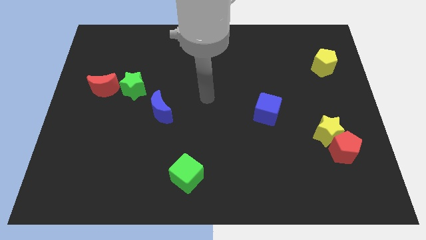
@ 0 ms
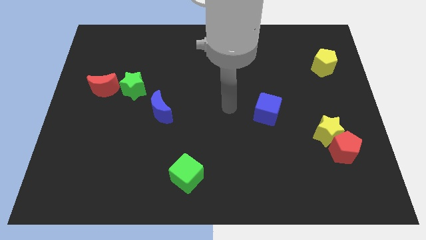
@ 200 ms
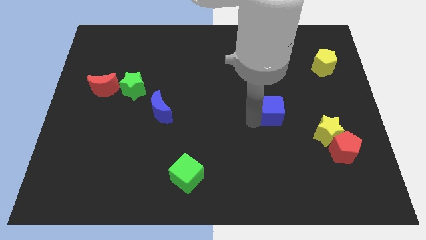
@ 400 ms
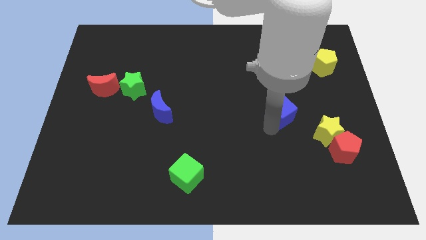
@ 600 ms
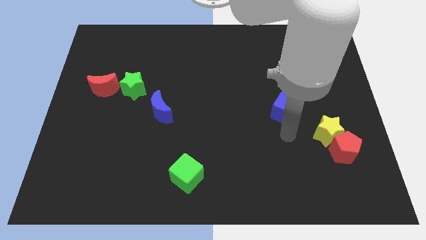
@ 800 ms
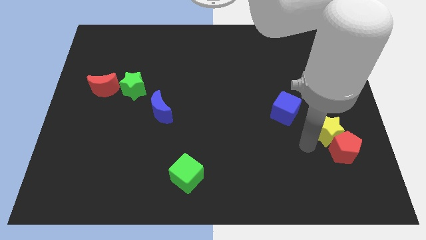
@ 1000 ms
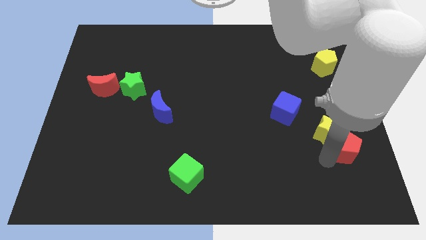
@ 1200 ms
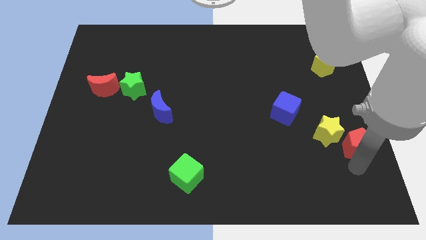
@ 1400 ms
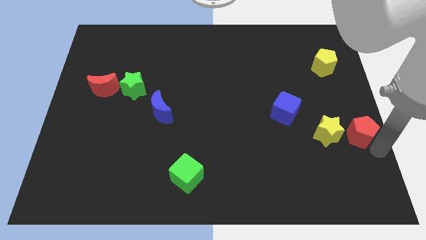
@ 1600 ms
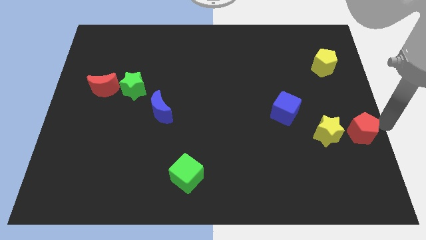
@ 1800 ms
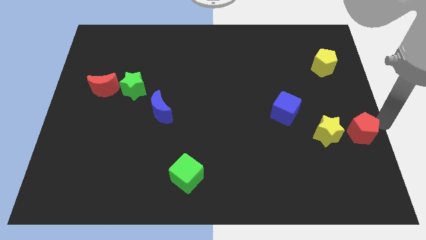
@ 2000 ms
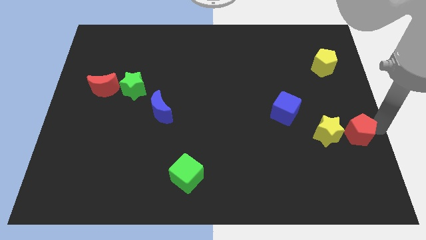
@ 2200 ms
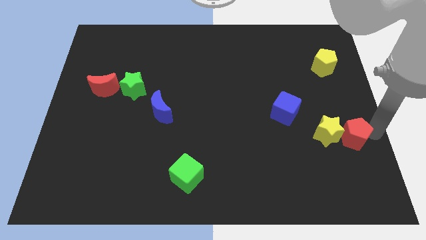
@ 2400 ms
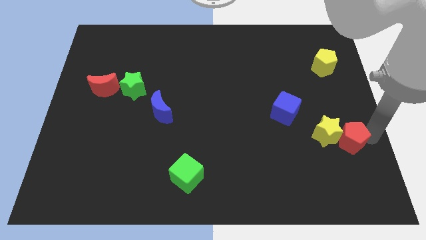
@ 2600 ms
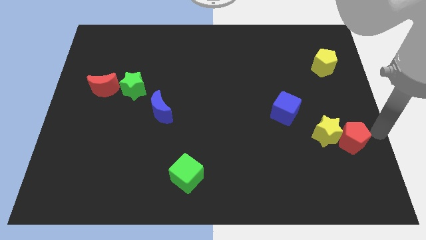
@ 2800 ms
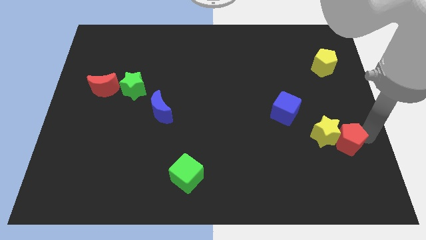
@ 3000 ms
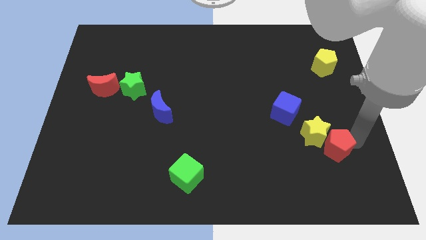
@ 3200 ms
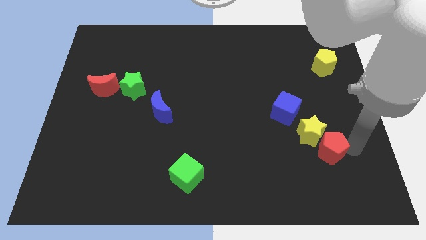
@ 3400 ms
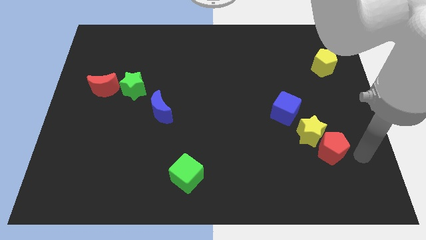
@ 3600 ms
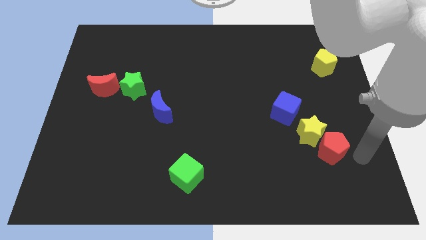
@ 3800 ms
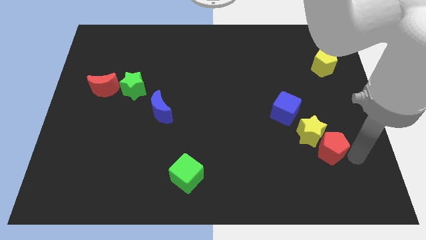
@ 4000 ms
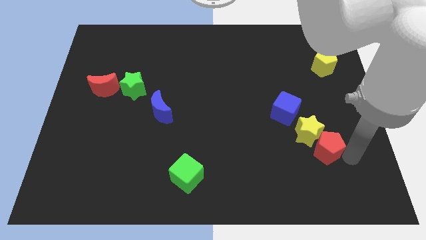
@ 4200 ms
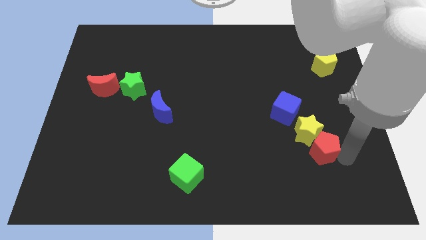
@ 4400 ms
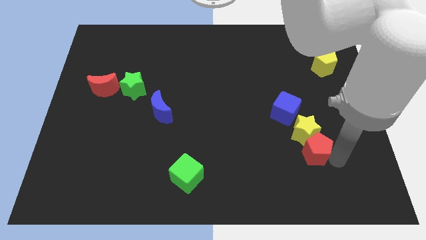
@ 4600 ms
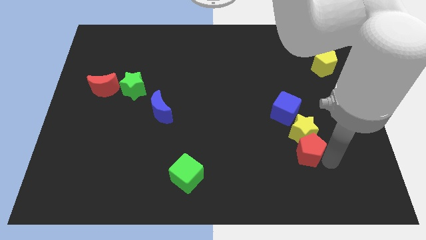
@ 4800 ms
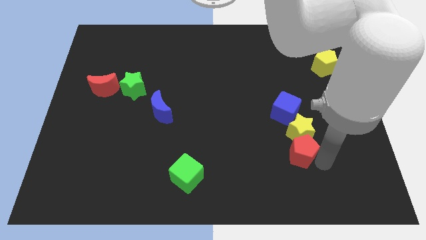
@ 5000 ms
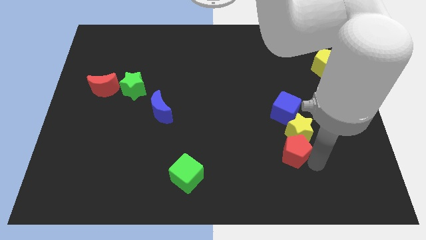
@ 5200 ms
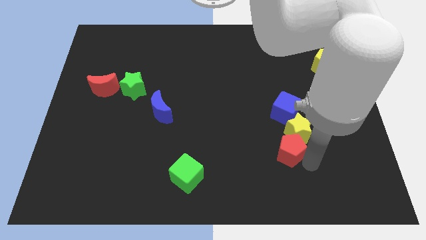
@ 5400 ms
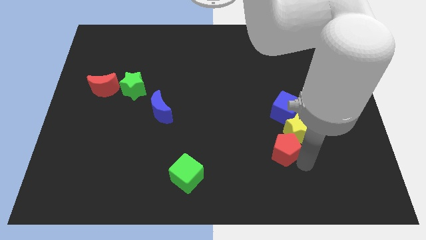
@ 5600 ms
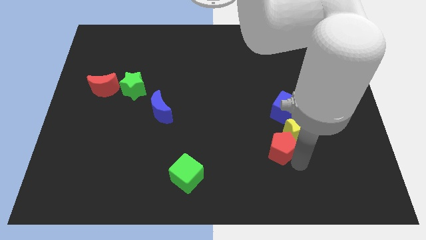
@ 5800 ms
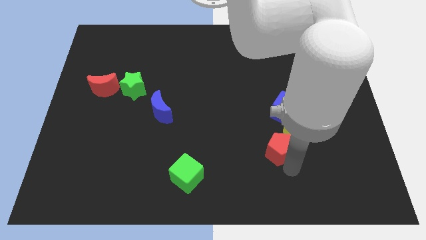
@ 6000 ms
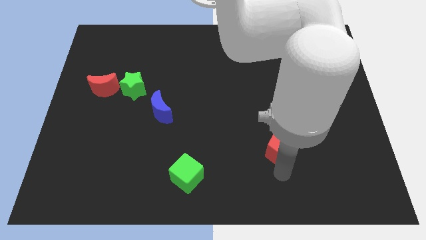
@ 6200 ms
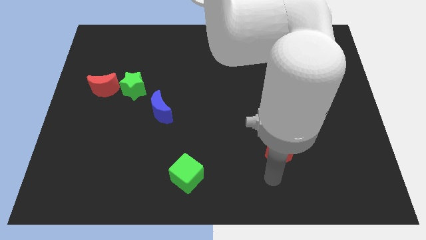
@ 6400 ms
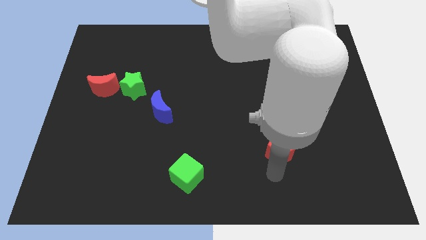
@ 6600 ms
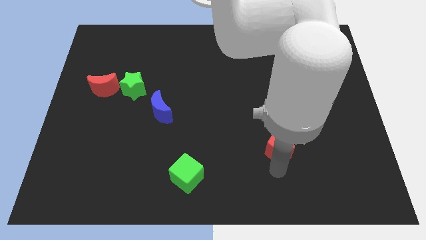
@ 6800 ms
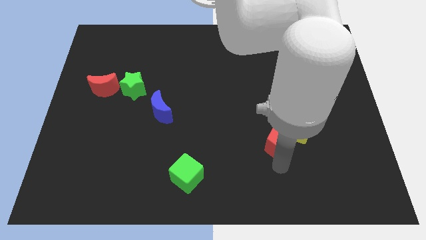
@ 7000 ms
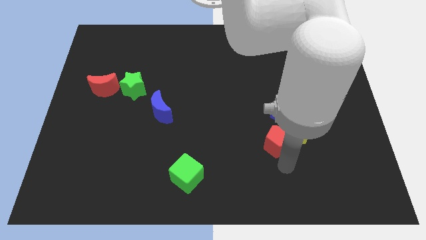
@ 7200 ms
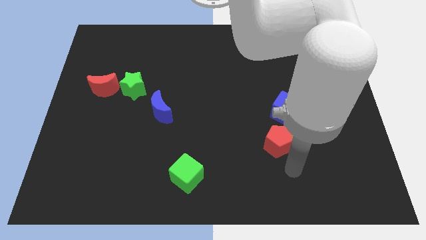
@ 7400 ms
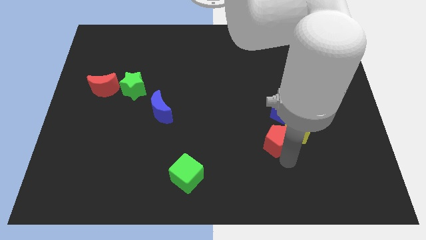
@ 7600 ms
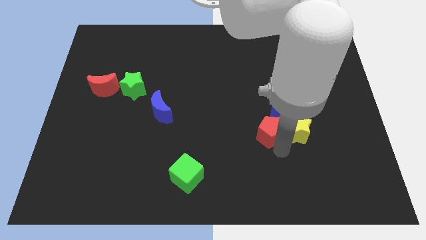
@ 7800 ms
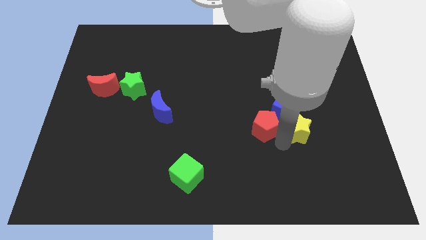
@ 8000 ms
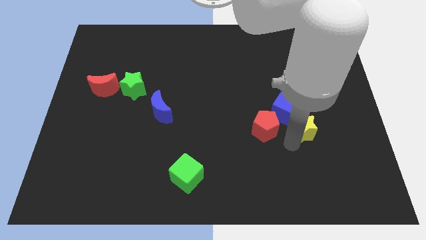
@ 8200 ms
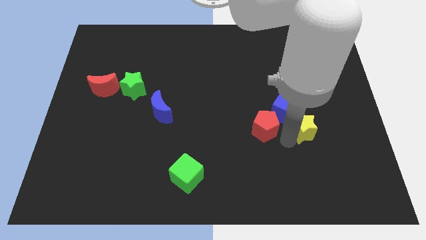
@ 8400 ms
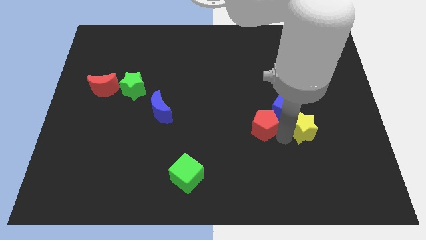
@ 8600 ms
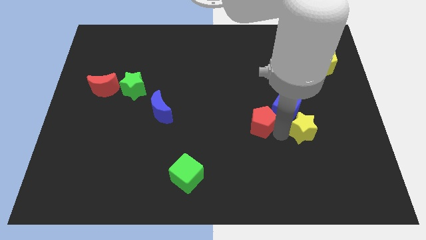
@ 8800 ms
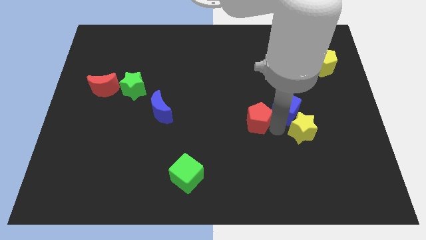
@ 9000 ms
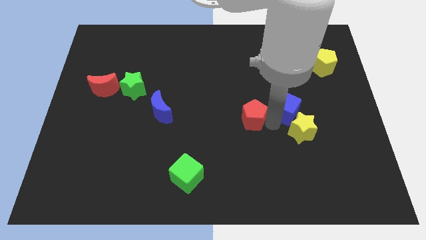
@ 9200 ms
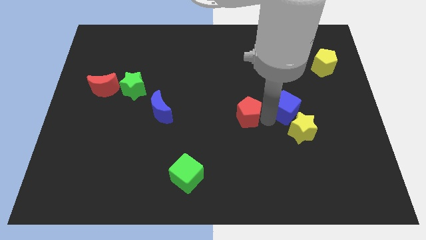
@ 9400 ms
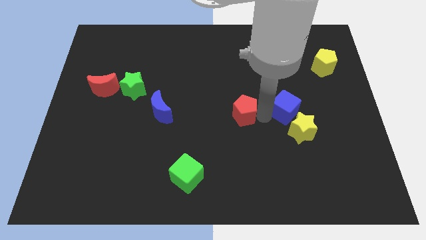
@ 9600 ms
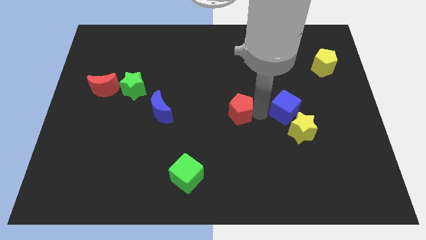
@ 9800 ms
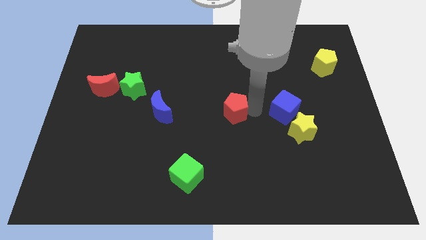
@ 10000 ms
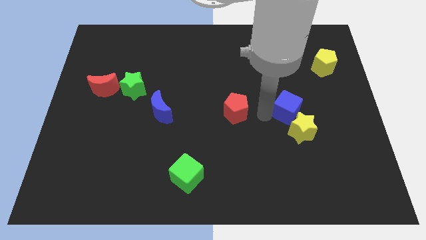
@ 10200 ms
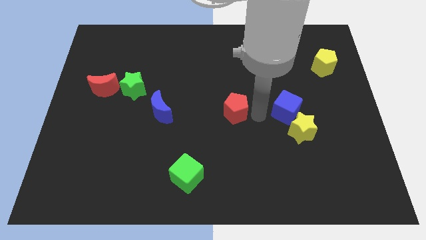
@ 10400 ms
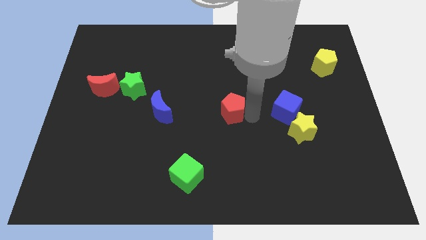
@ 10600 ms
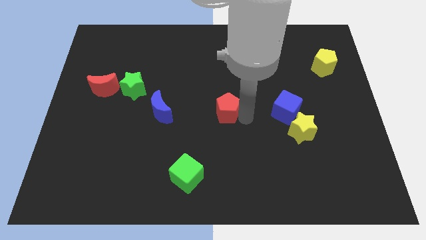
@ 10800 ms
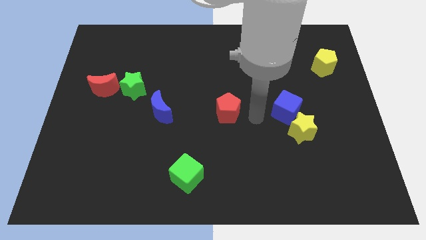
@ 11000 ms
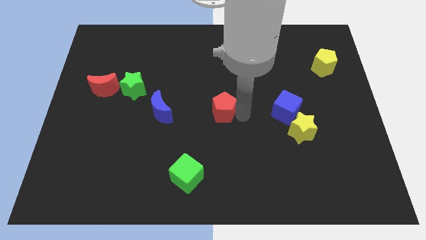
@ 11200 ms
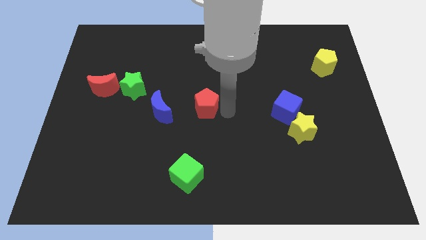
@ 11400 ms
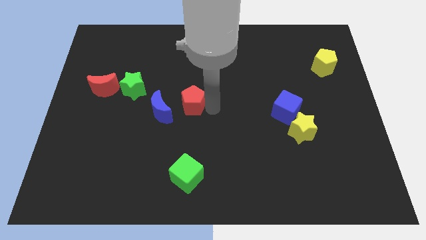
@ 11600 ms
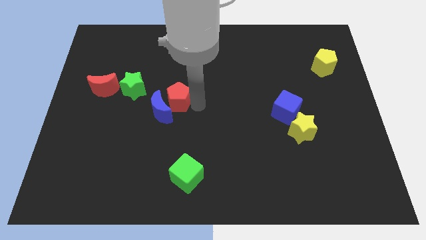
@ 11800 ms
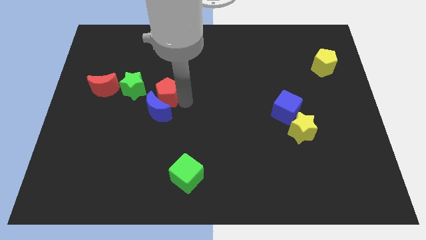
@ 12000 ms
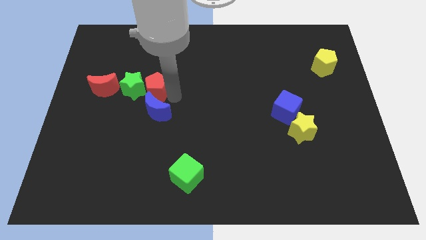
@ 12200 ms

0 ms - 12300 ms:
move the red pentagon next to the green star

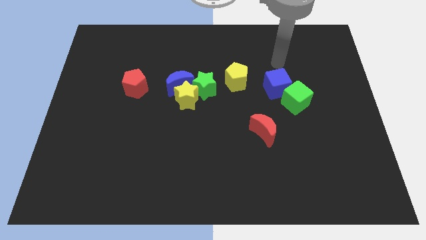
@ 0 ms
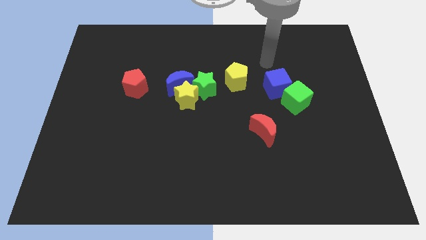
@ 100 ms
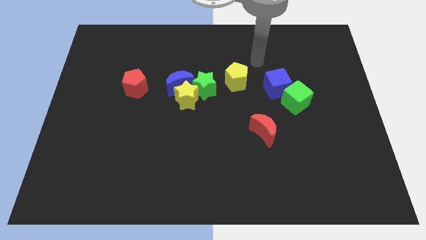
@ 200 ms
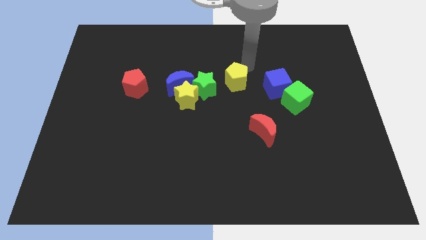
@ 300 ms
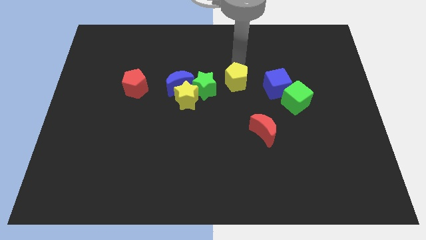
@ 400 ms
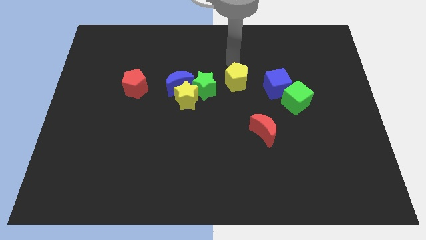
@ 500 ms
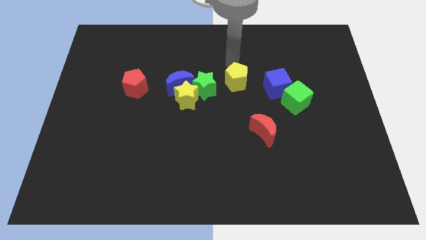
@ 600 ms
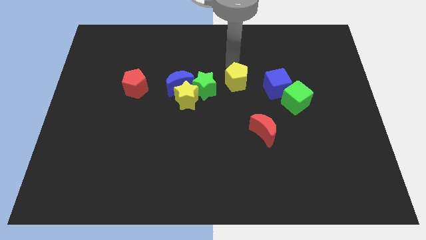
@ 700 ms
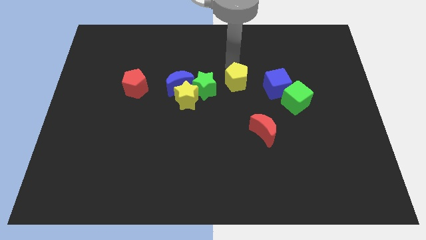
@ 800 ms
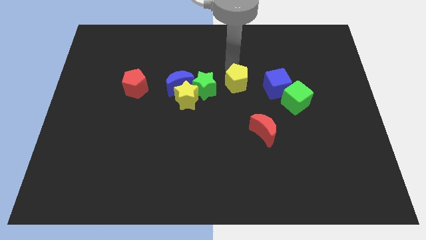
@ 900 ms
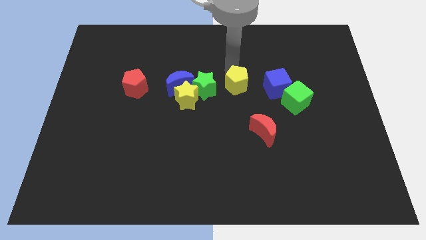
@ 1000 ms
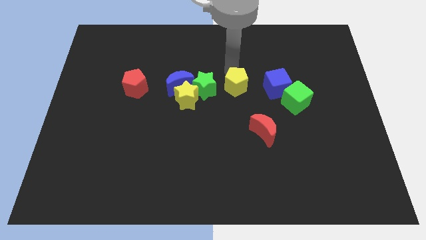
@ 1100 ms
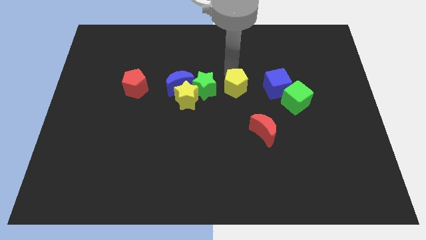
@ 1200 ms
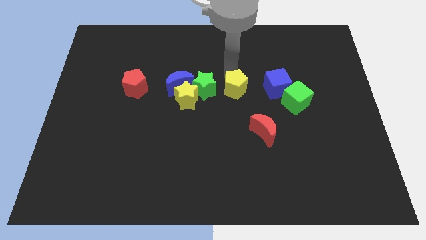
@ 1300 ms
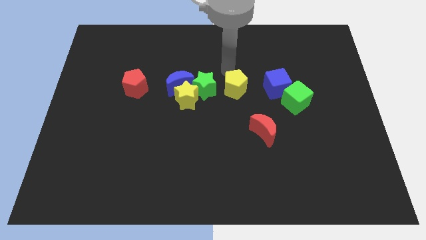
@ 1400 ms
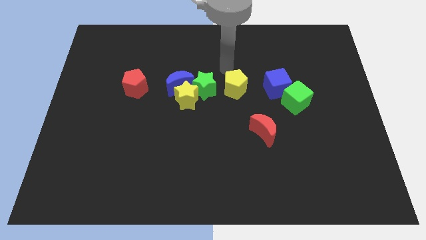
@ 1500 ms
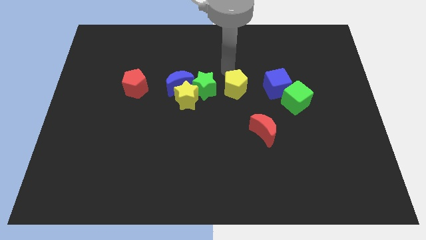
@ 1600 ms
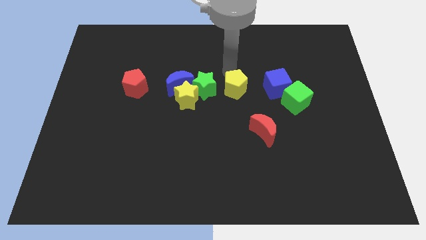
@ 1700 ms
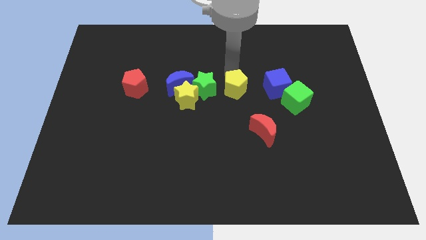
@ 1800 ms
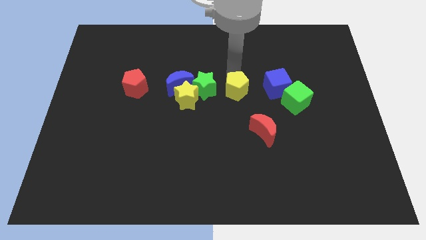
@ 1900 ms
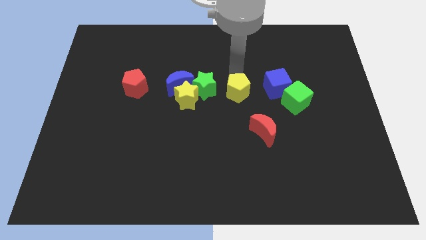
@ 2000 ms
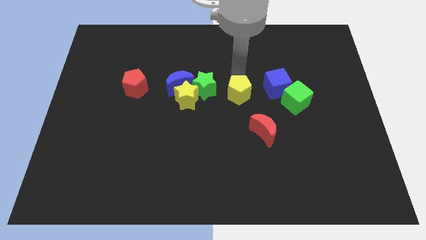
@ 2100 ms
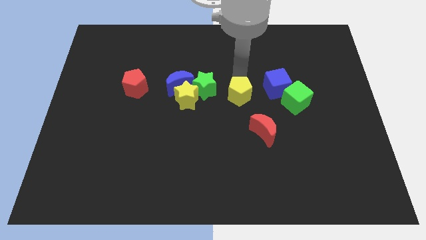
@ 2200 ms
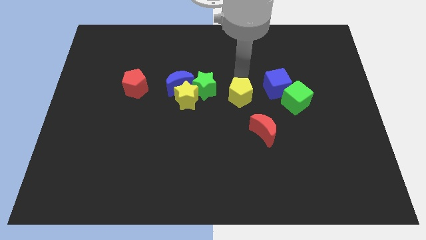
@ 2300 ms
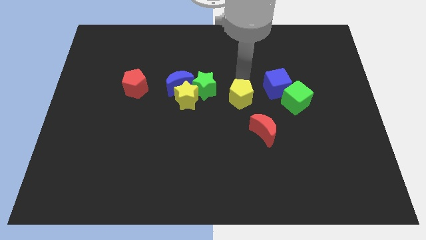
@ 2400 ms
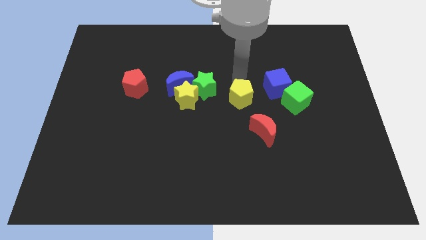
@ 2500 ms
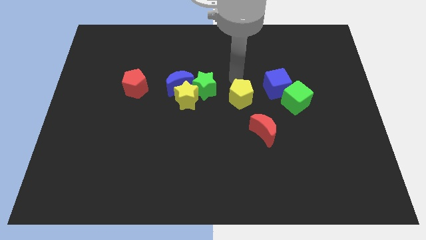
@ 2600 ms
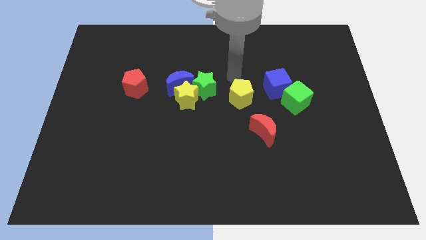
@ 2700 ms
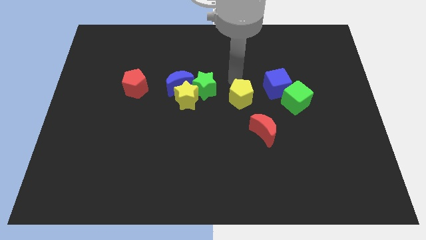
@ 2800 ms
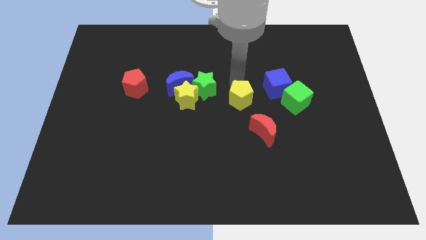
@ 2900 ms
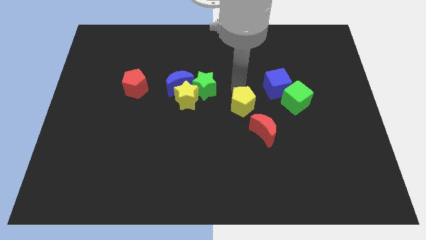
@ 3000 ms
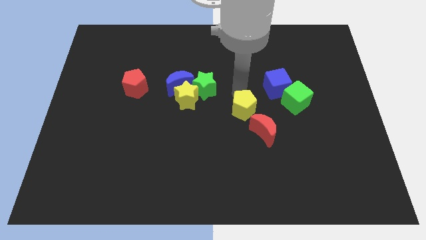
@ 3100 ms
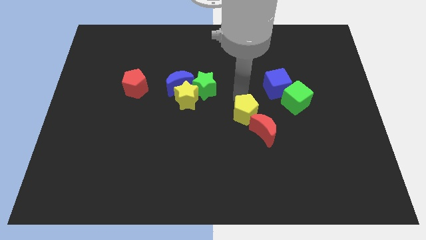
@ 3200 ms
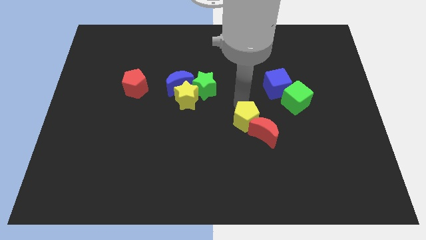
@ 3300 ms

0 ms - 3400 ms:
move the yellow pentagon close to the red moon
